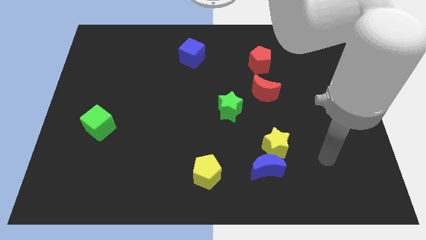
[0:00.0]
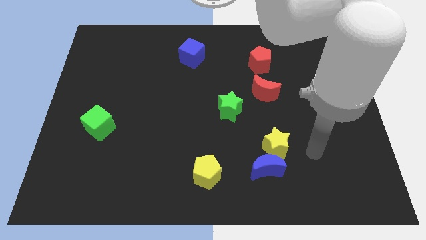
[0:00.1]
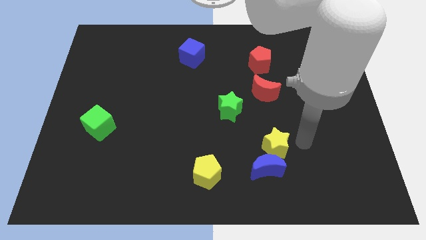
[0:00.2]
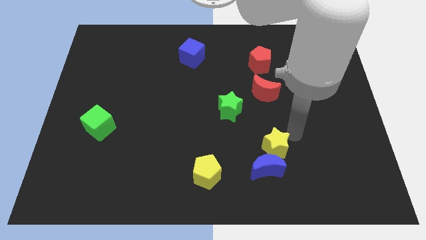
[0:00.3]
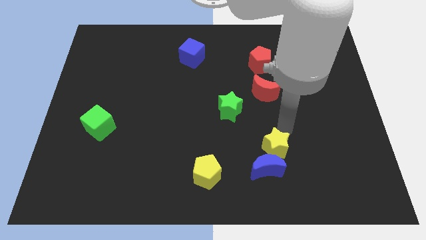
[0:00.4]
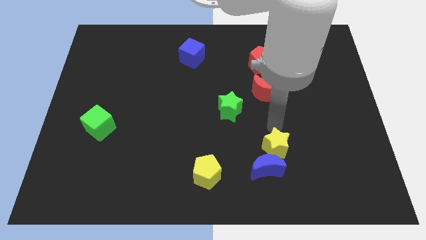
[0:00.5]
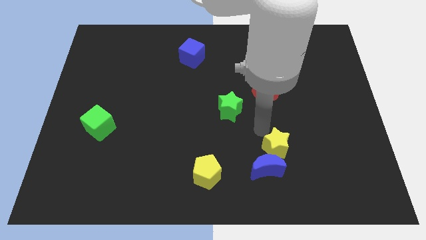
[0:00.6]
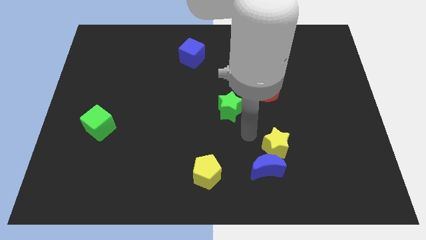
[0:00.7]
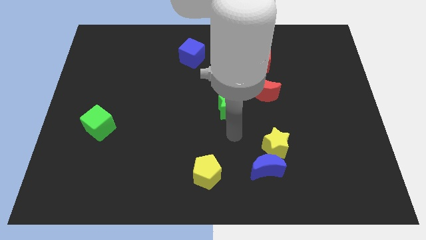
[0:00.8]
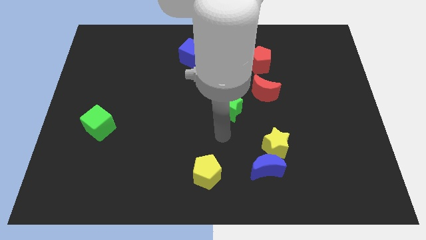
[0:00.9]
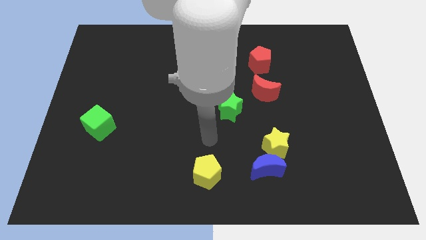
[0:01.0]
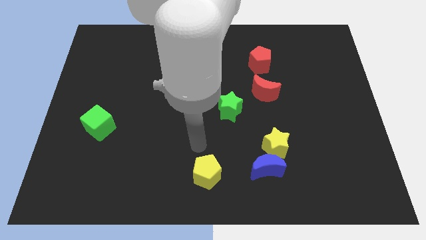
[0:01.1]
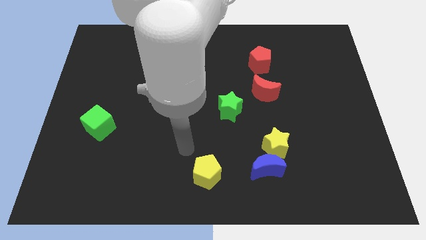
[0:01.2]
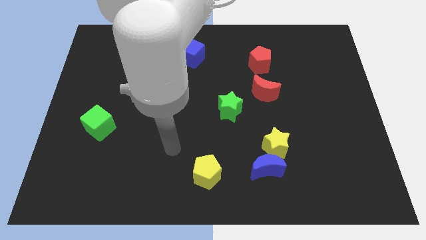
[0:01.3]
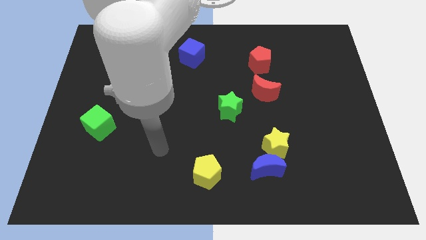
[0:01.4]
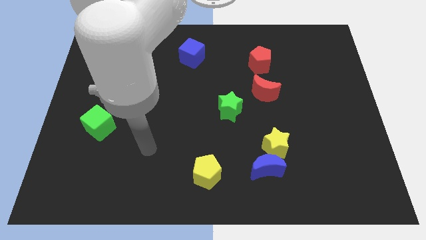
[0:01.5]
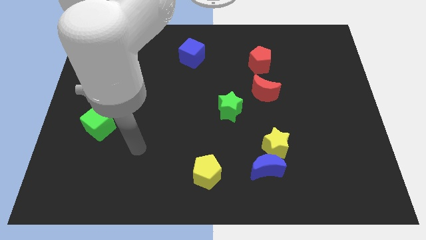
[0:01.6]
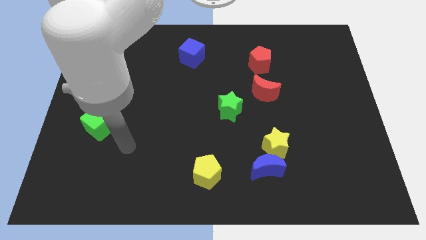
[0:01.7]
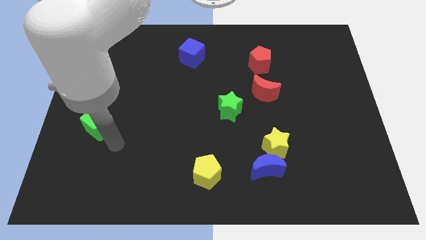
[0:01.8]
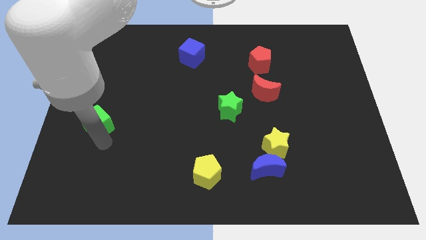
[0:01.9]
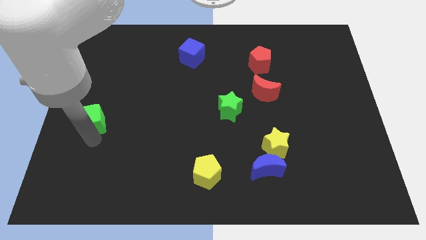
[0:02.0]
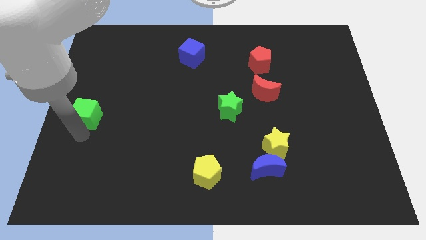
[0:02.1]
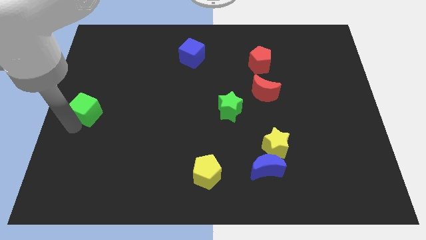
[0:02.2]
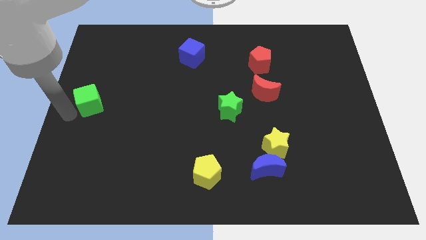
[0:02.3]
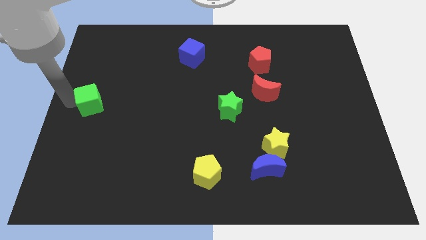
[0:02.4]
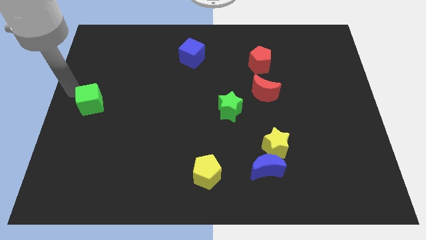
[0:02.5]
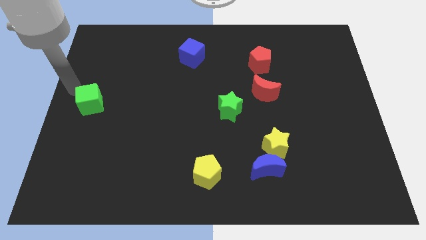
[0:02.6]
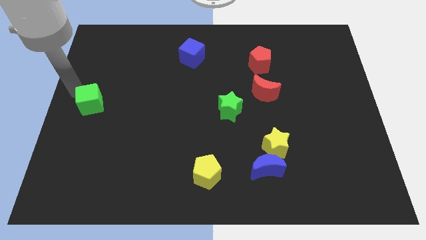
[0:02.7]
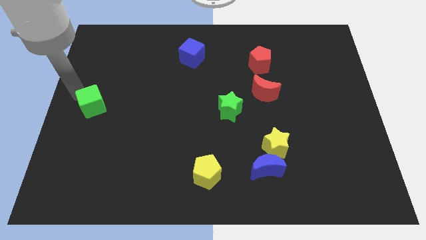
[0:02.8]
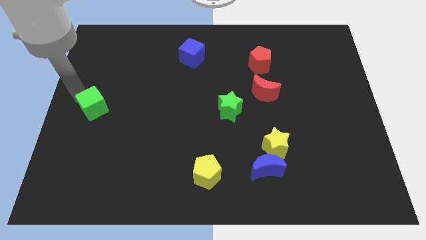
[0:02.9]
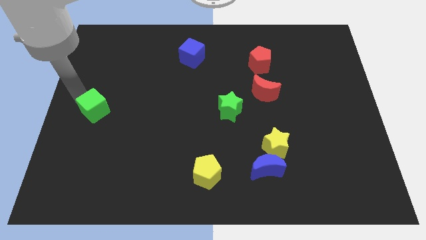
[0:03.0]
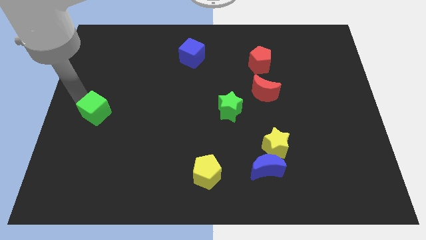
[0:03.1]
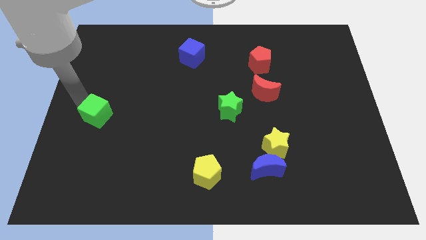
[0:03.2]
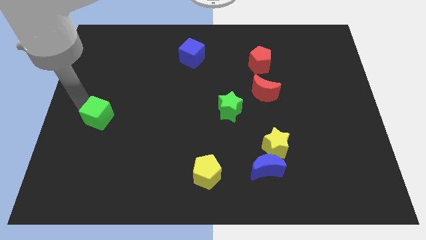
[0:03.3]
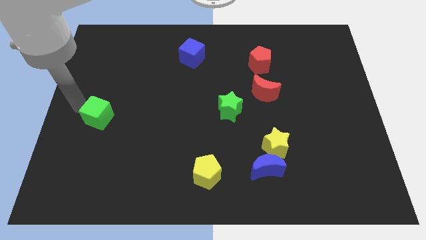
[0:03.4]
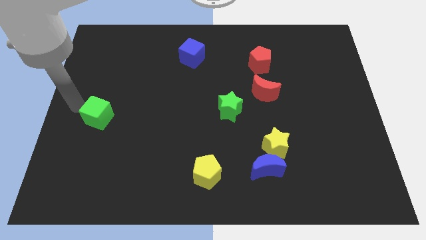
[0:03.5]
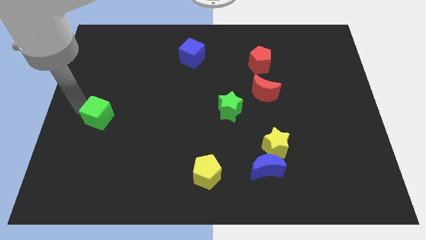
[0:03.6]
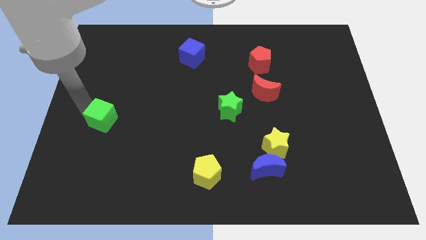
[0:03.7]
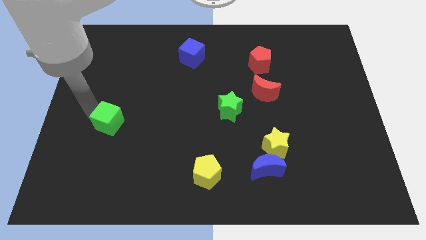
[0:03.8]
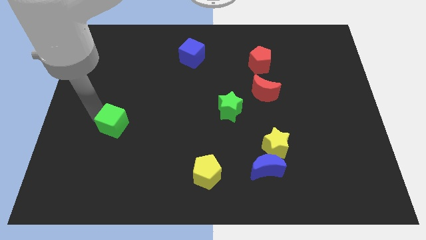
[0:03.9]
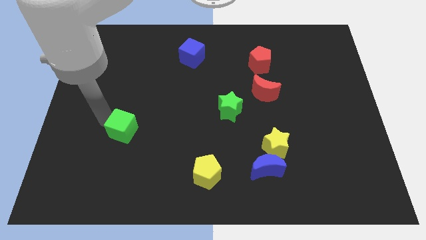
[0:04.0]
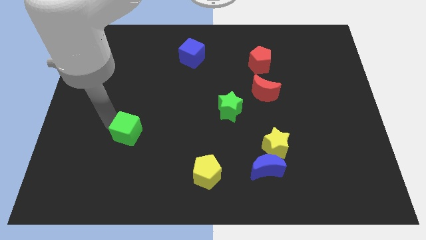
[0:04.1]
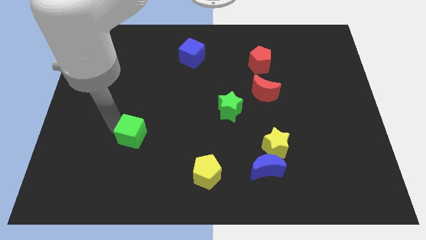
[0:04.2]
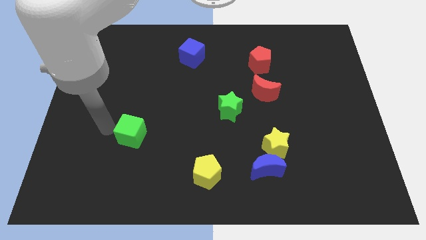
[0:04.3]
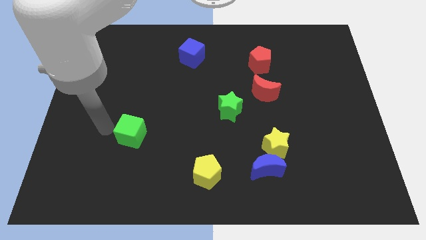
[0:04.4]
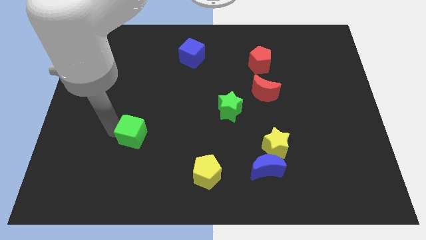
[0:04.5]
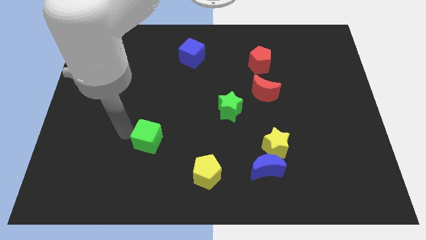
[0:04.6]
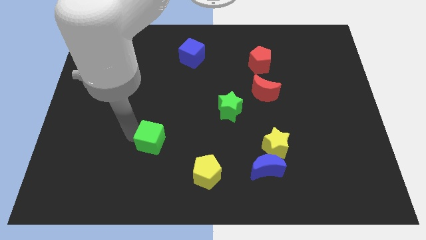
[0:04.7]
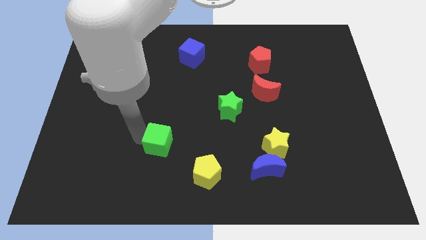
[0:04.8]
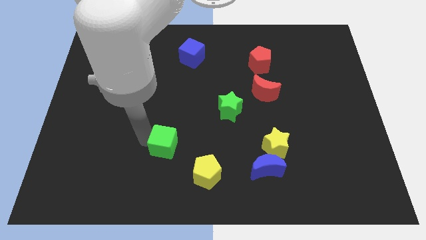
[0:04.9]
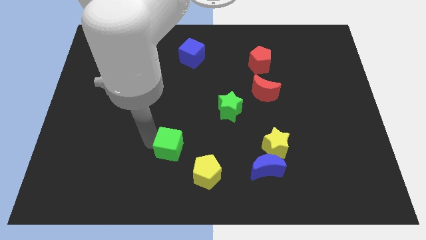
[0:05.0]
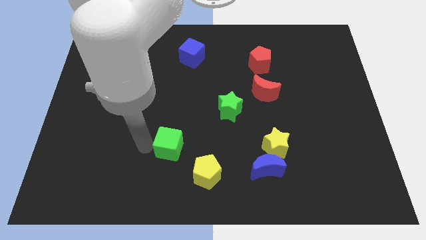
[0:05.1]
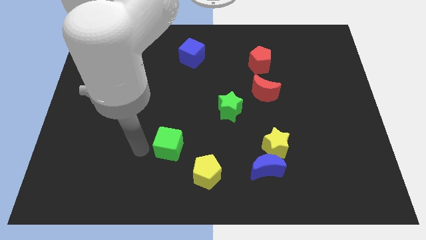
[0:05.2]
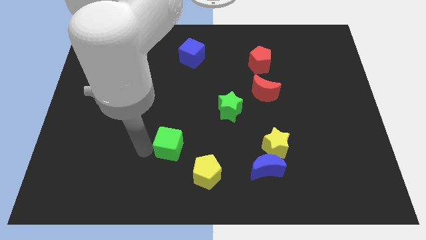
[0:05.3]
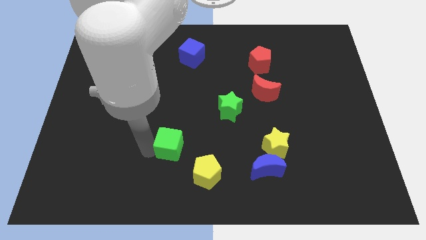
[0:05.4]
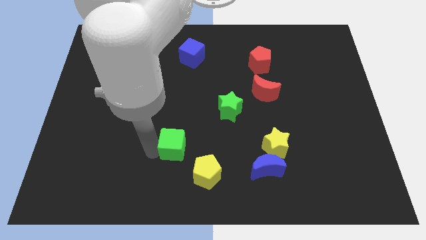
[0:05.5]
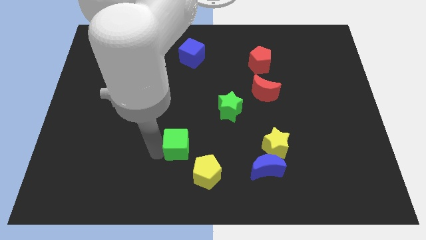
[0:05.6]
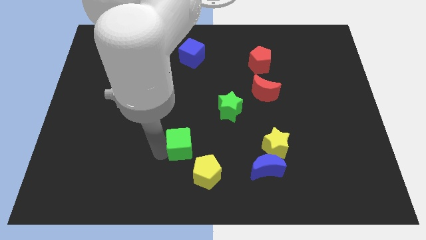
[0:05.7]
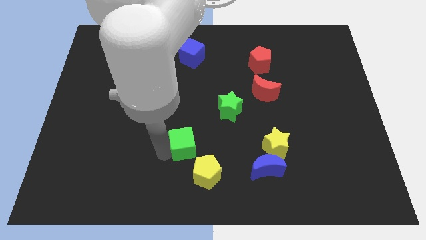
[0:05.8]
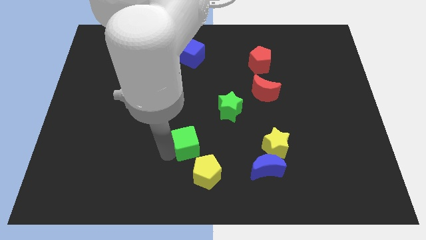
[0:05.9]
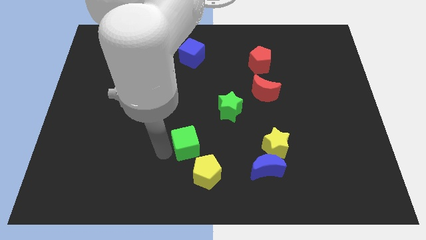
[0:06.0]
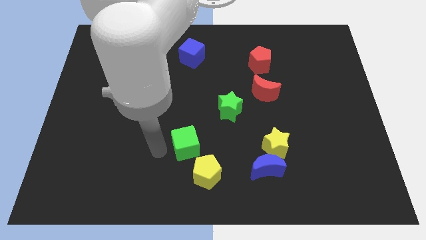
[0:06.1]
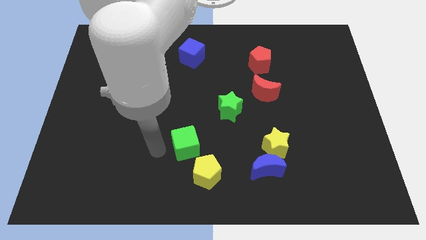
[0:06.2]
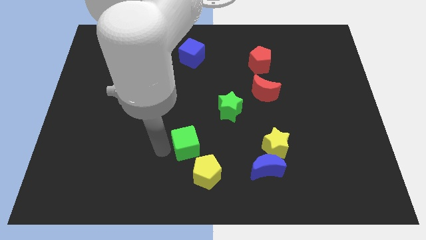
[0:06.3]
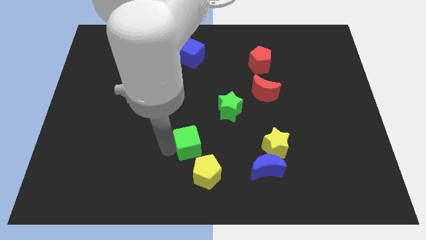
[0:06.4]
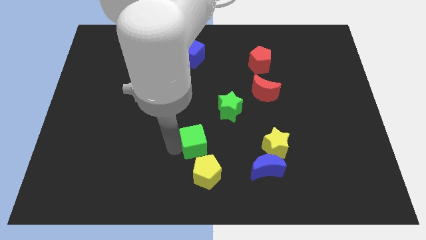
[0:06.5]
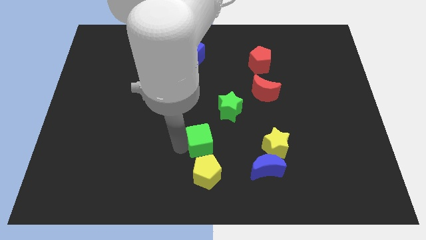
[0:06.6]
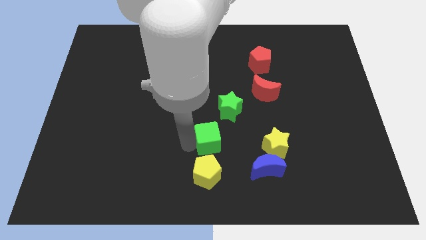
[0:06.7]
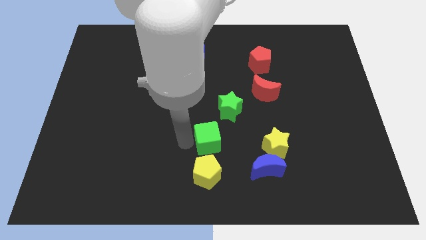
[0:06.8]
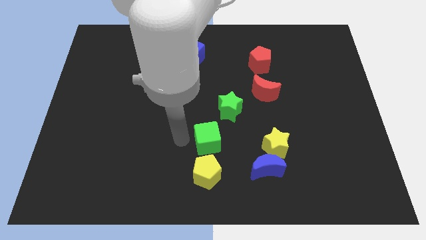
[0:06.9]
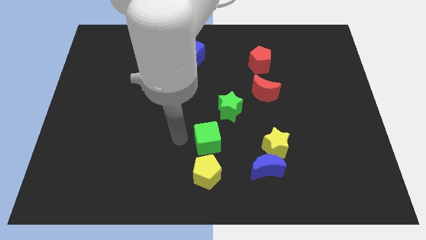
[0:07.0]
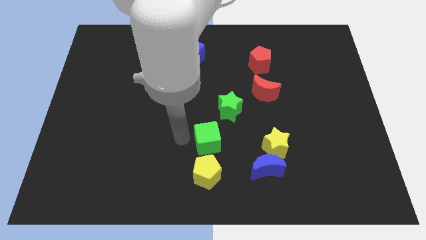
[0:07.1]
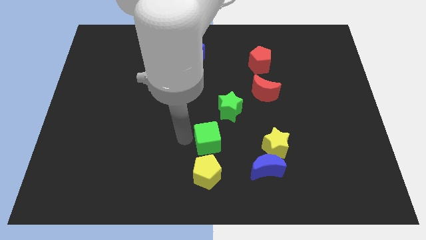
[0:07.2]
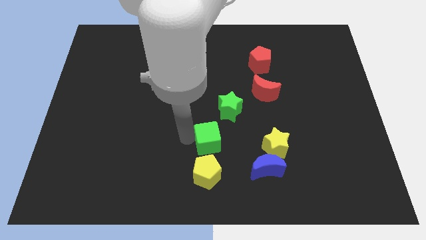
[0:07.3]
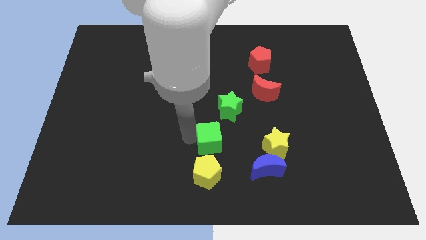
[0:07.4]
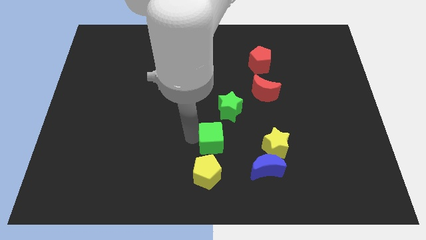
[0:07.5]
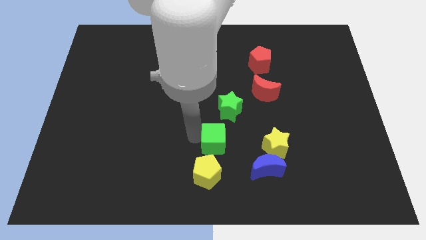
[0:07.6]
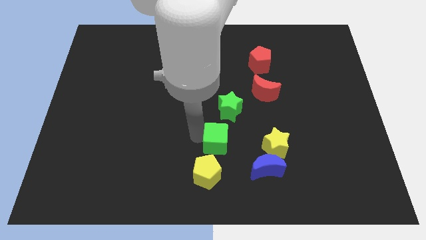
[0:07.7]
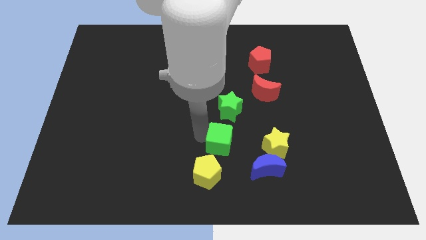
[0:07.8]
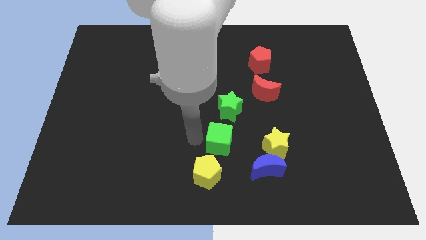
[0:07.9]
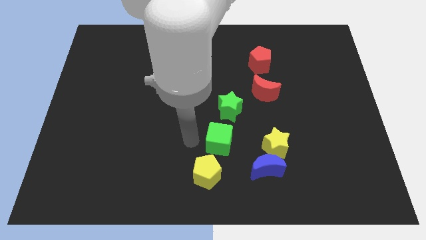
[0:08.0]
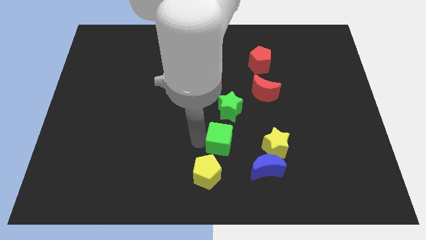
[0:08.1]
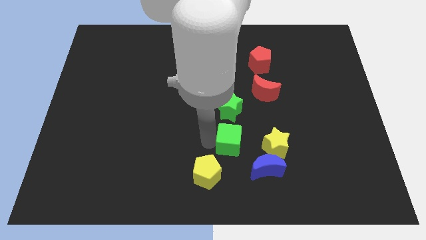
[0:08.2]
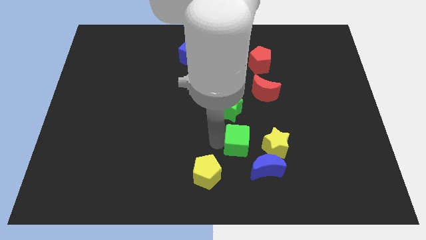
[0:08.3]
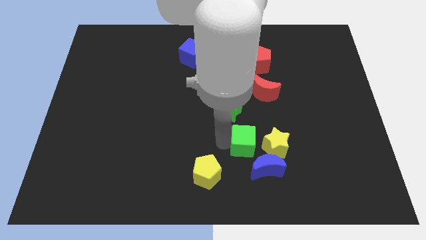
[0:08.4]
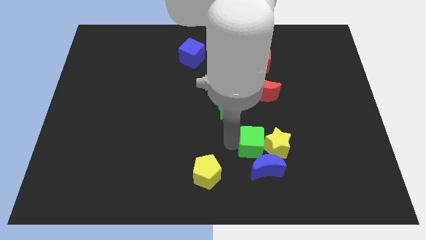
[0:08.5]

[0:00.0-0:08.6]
put the green cube close to the yellow star
